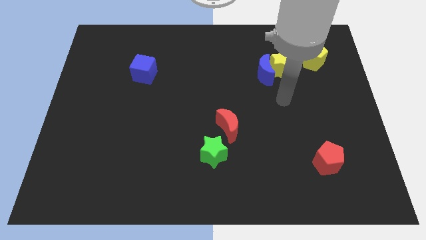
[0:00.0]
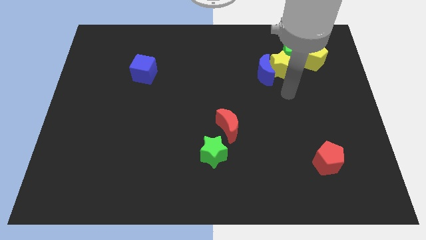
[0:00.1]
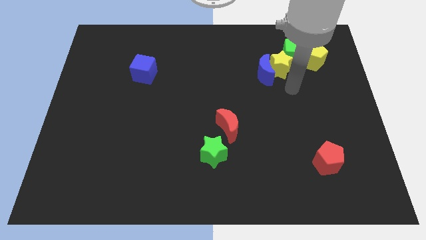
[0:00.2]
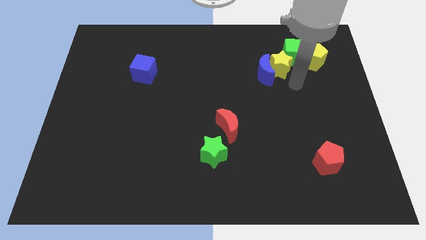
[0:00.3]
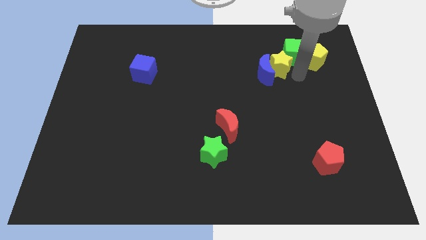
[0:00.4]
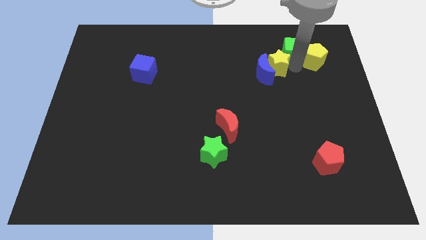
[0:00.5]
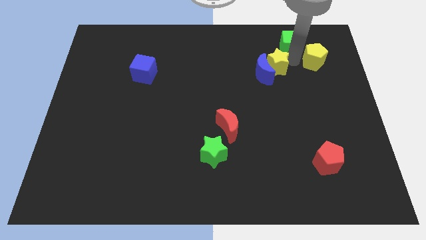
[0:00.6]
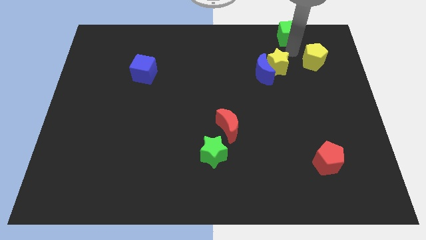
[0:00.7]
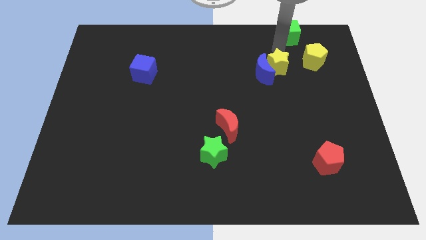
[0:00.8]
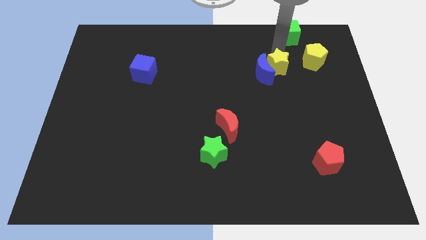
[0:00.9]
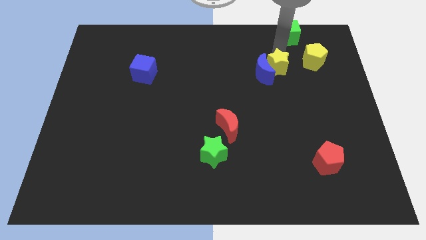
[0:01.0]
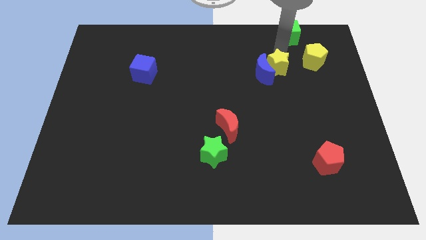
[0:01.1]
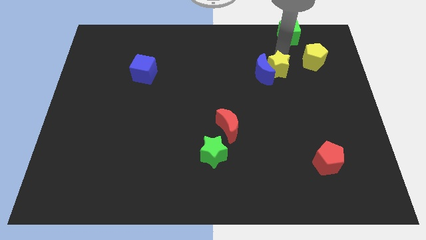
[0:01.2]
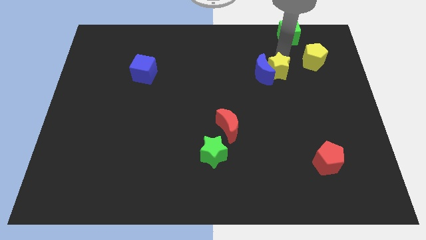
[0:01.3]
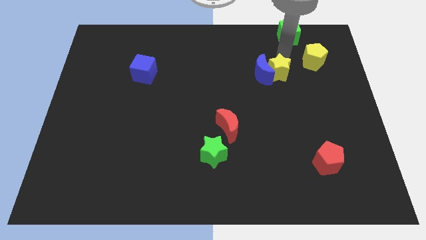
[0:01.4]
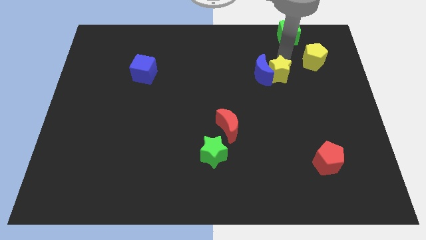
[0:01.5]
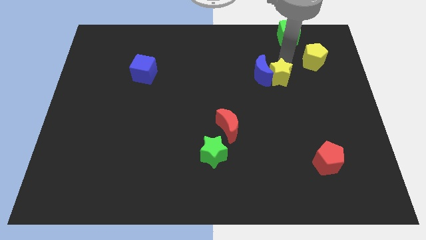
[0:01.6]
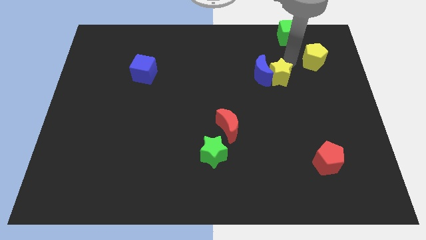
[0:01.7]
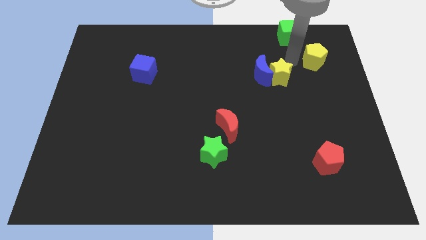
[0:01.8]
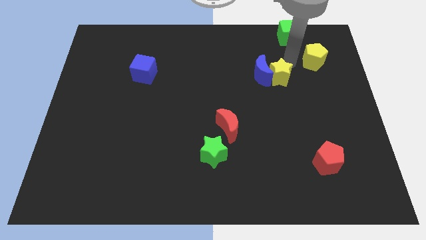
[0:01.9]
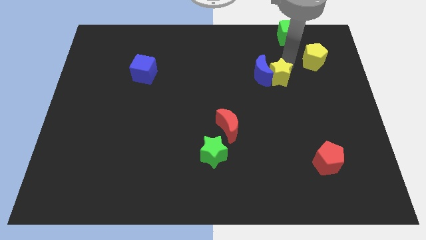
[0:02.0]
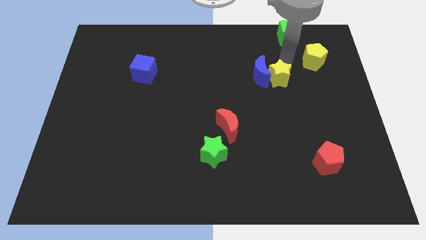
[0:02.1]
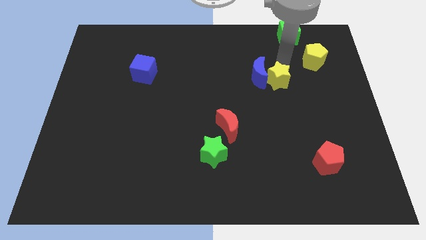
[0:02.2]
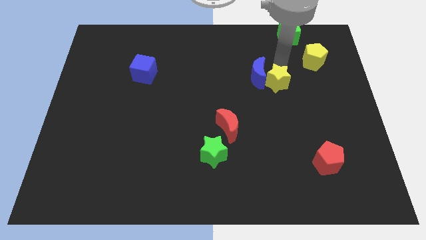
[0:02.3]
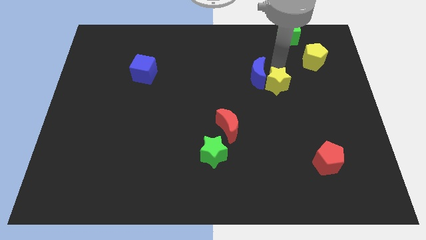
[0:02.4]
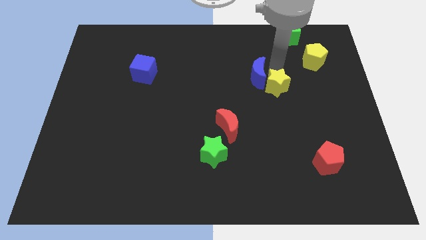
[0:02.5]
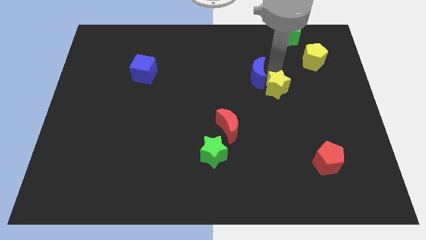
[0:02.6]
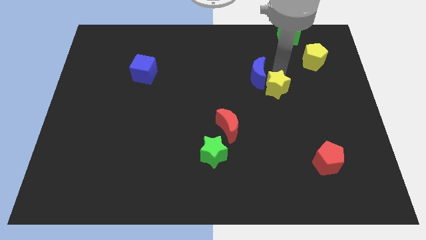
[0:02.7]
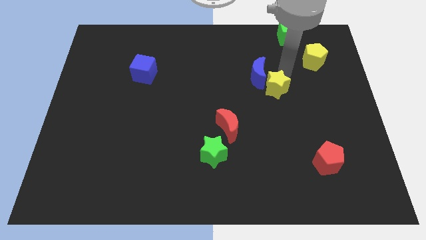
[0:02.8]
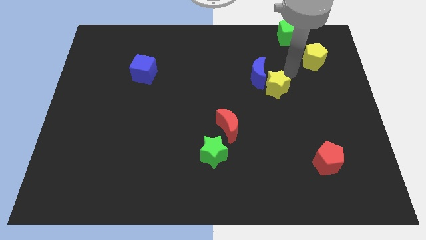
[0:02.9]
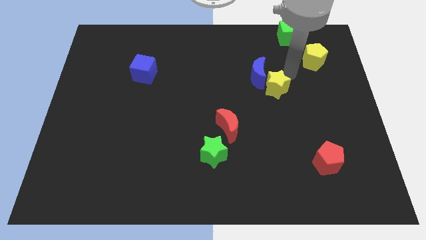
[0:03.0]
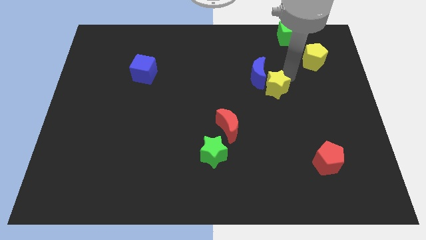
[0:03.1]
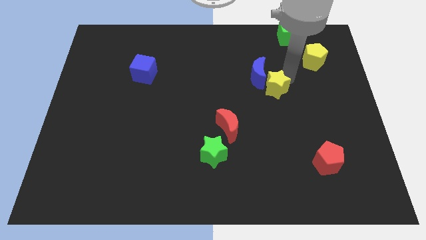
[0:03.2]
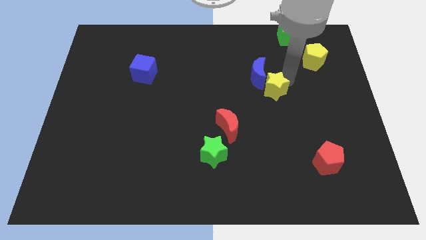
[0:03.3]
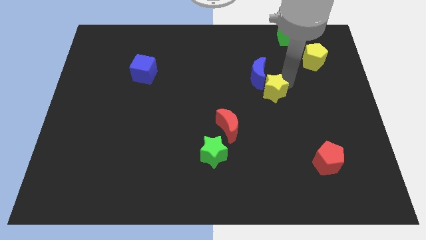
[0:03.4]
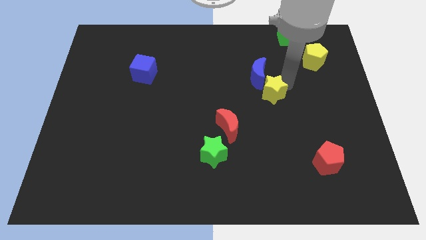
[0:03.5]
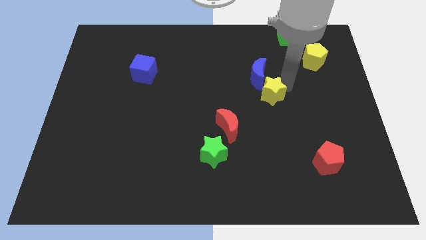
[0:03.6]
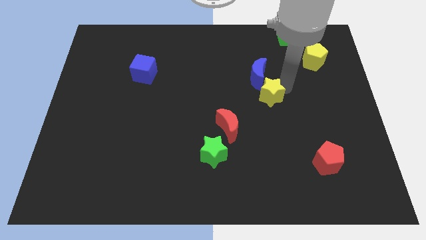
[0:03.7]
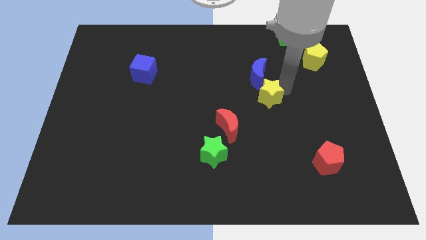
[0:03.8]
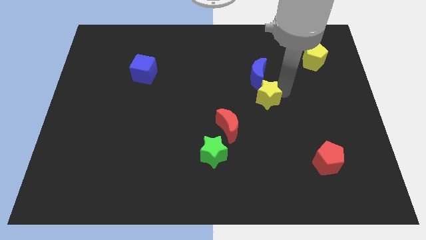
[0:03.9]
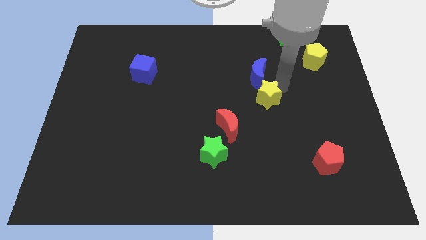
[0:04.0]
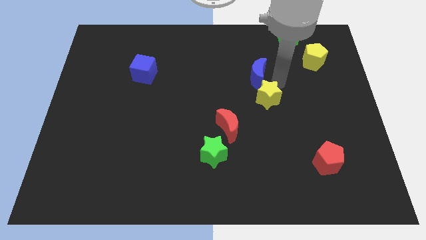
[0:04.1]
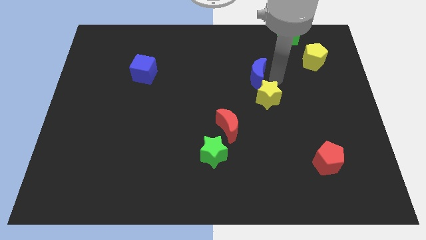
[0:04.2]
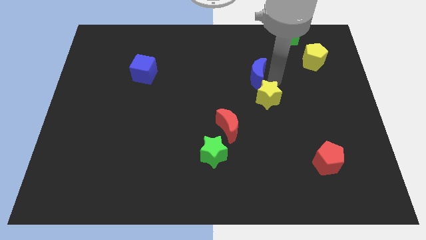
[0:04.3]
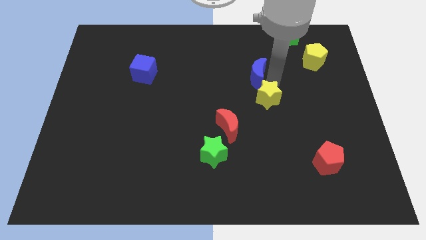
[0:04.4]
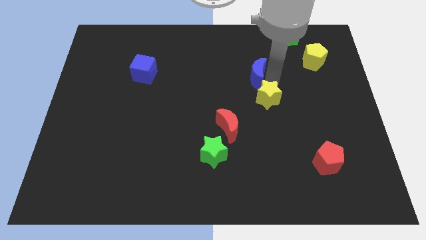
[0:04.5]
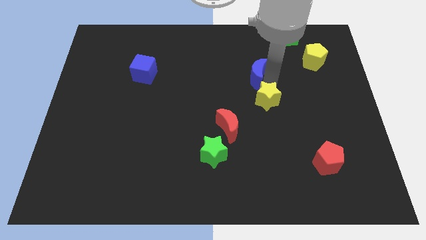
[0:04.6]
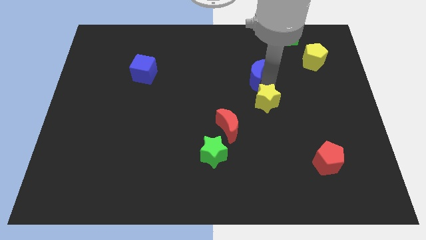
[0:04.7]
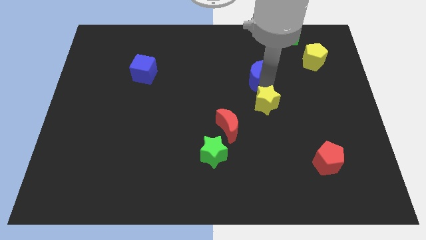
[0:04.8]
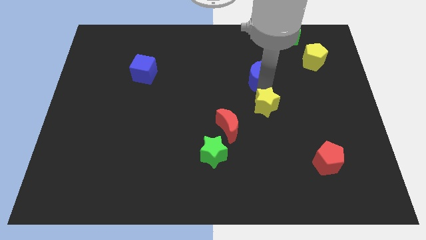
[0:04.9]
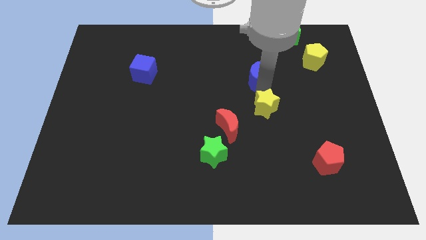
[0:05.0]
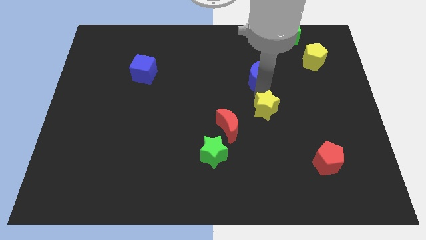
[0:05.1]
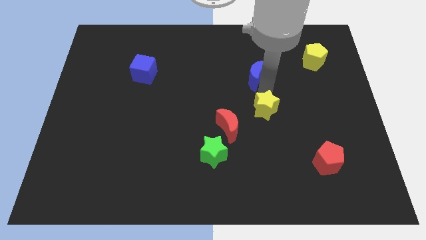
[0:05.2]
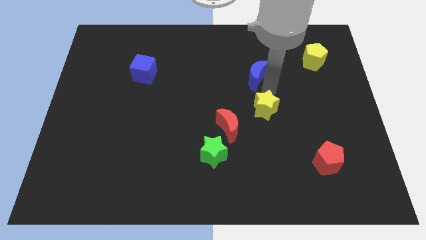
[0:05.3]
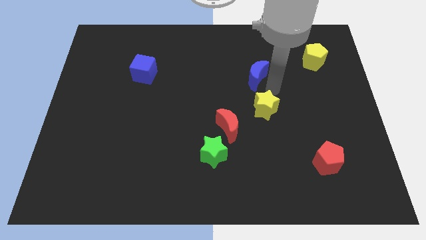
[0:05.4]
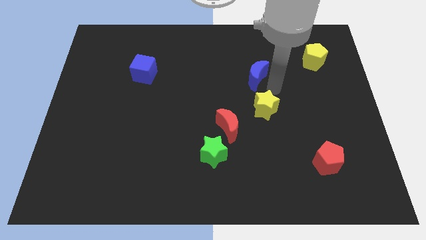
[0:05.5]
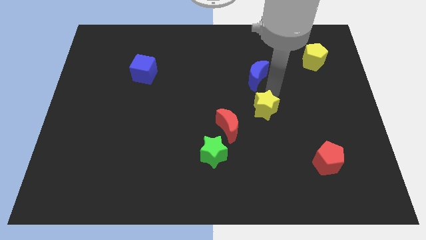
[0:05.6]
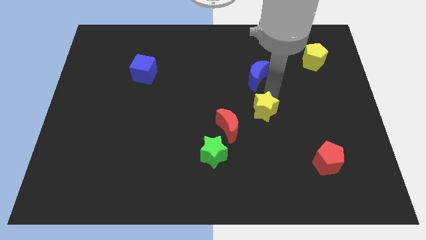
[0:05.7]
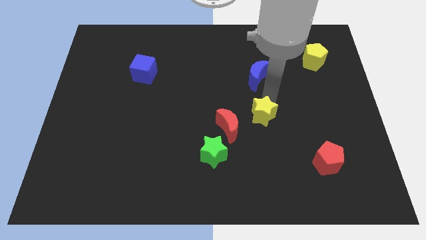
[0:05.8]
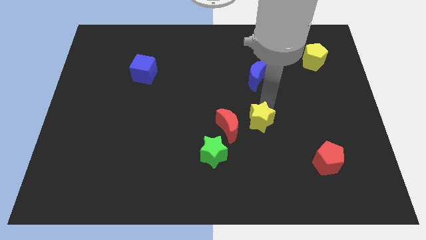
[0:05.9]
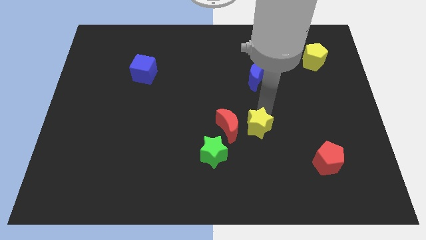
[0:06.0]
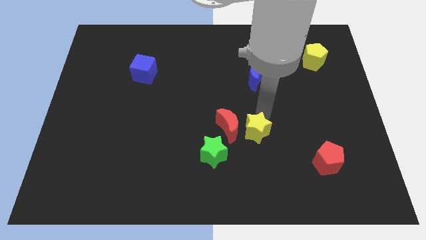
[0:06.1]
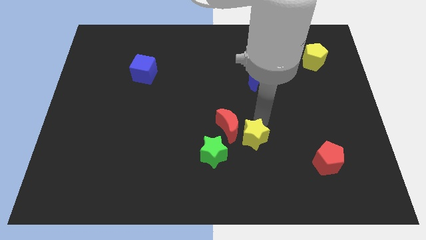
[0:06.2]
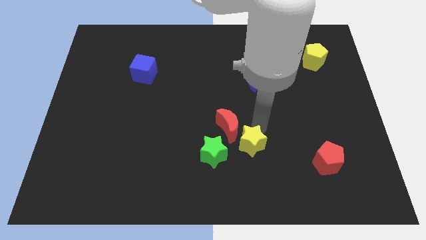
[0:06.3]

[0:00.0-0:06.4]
push the yellow star to the bottom of the red moon

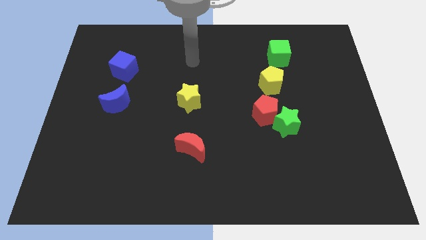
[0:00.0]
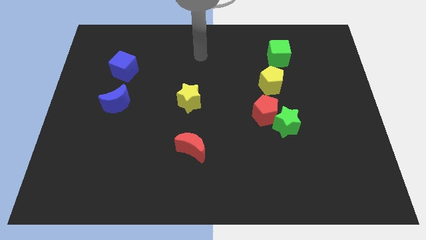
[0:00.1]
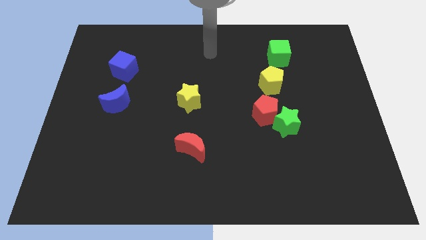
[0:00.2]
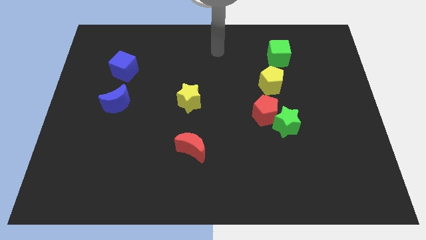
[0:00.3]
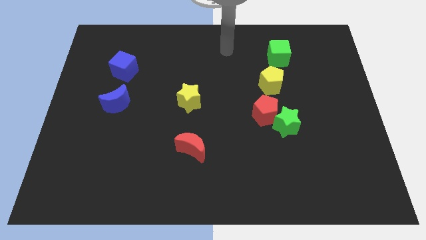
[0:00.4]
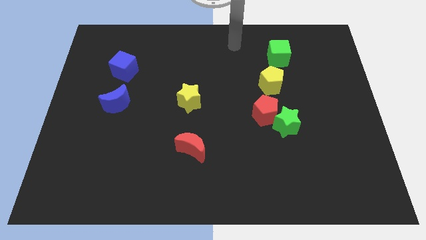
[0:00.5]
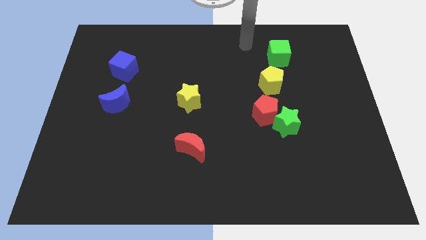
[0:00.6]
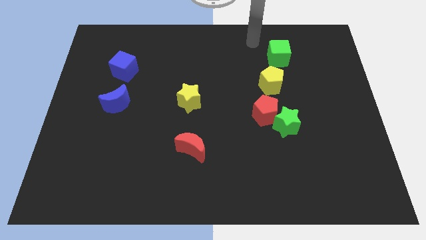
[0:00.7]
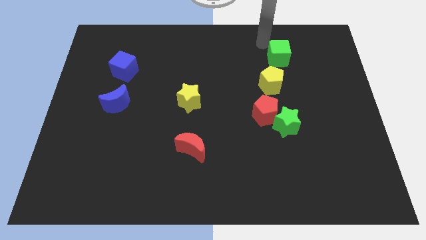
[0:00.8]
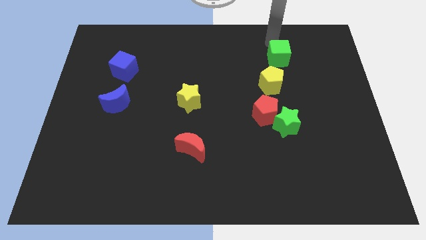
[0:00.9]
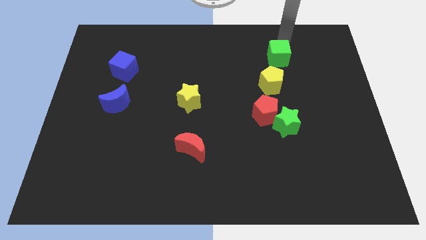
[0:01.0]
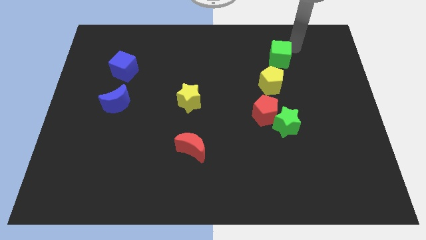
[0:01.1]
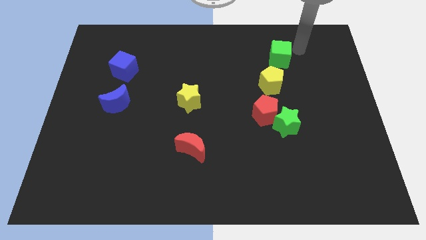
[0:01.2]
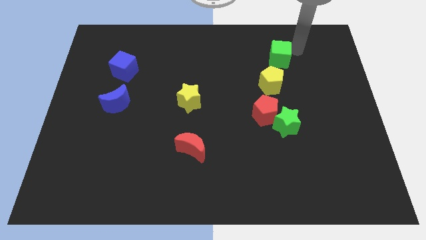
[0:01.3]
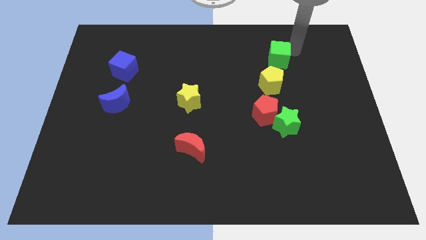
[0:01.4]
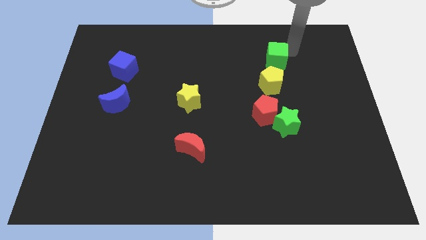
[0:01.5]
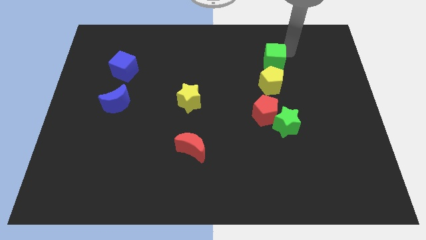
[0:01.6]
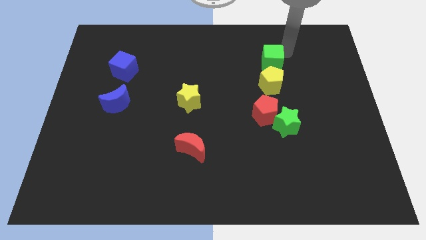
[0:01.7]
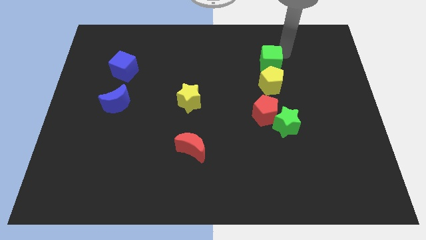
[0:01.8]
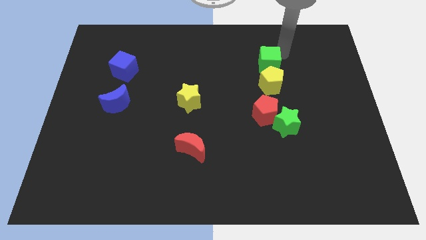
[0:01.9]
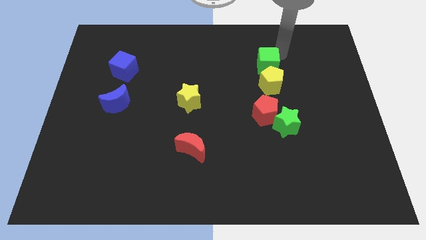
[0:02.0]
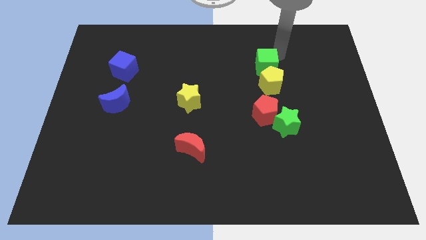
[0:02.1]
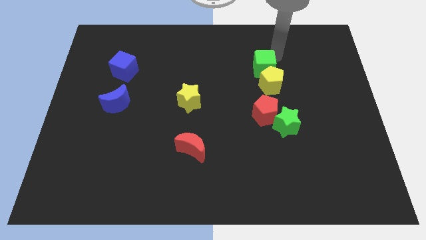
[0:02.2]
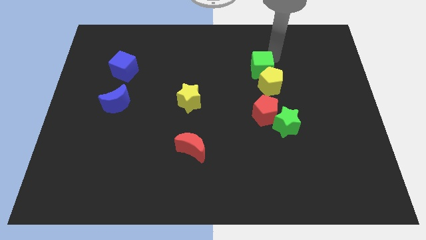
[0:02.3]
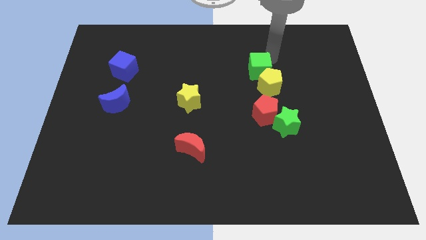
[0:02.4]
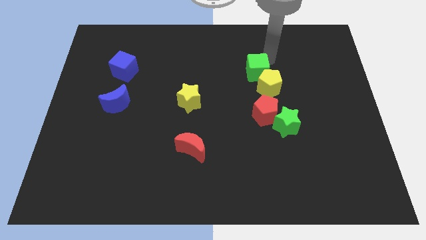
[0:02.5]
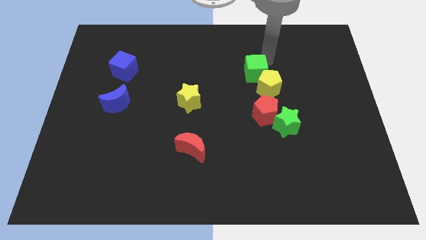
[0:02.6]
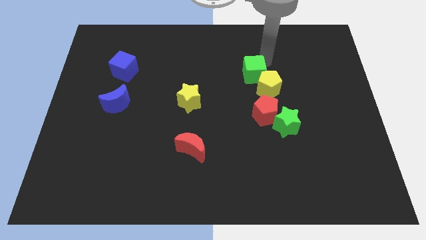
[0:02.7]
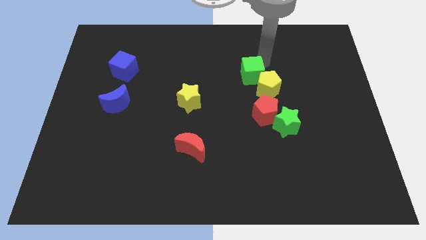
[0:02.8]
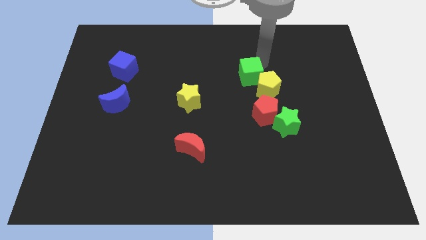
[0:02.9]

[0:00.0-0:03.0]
slide the green cube to the left side of the yellow pentagon
